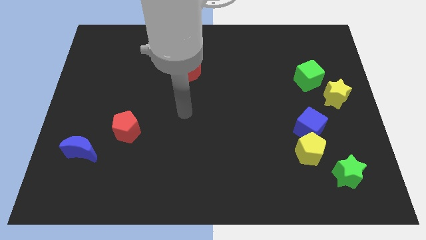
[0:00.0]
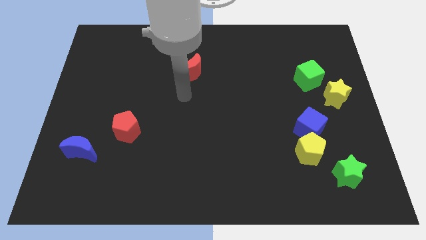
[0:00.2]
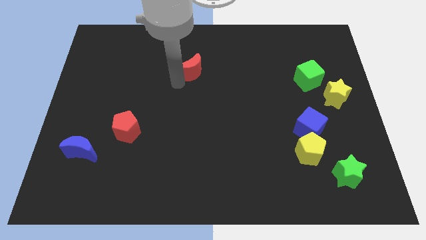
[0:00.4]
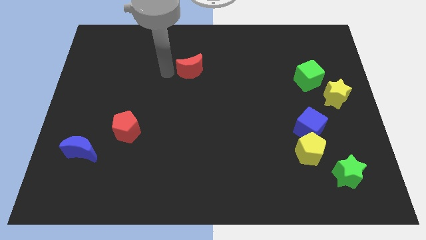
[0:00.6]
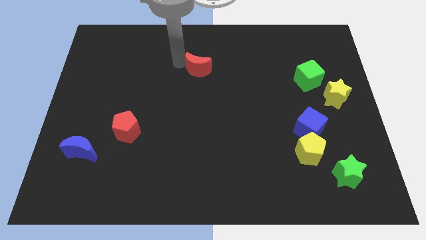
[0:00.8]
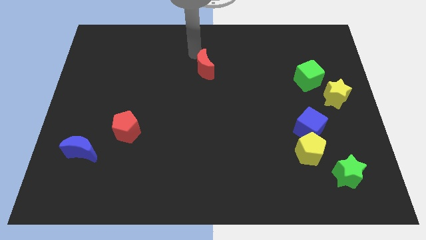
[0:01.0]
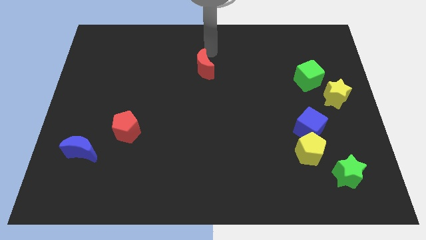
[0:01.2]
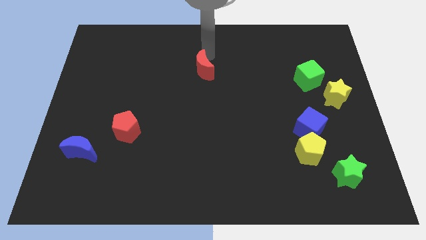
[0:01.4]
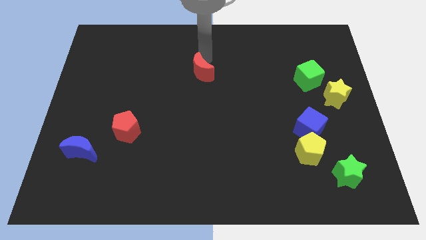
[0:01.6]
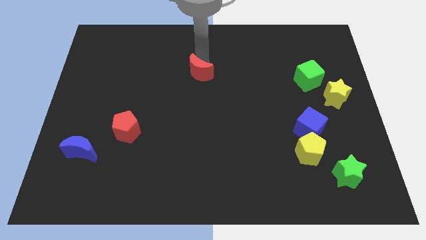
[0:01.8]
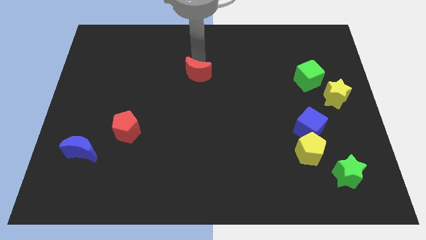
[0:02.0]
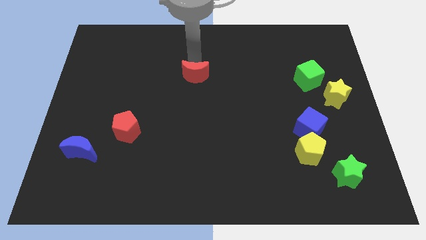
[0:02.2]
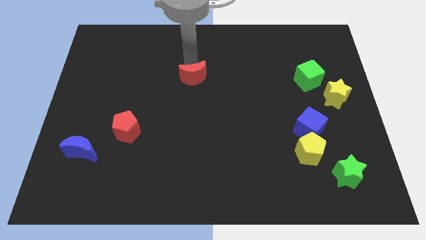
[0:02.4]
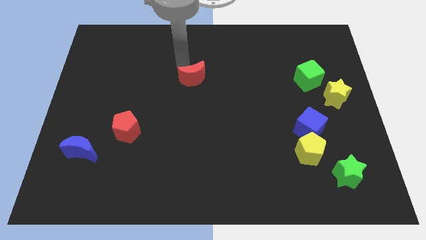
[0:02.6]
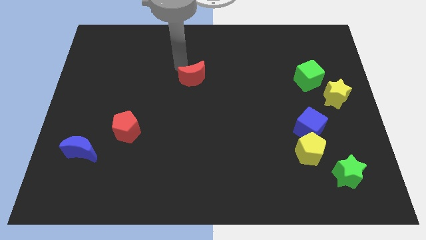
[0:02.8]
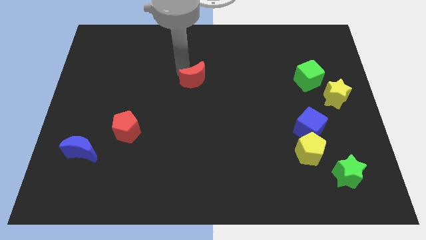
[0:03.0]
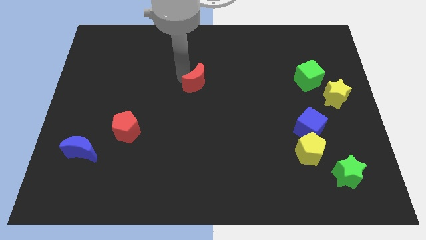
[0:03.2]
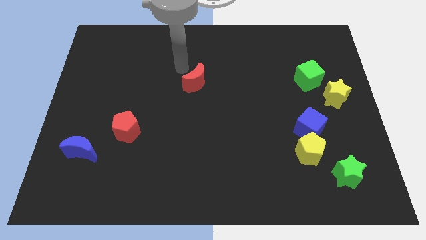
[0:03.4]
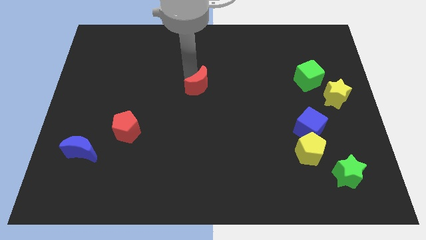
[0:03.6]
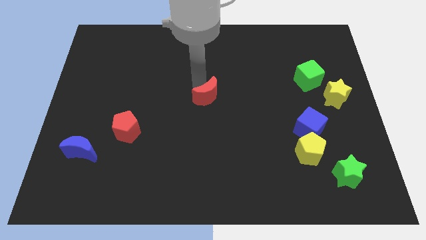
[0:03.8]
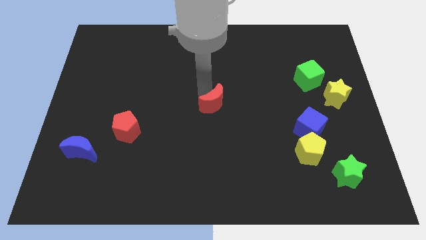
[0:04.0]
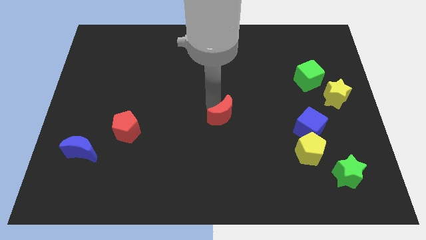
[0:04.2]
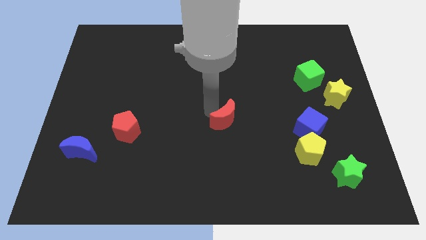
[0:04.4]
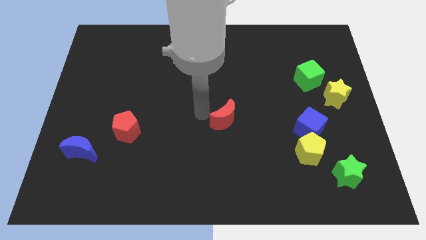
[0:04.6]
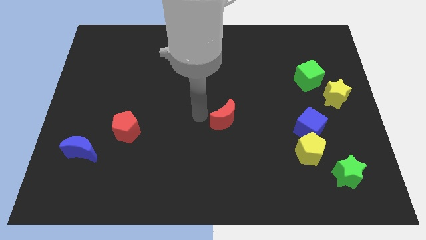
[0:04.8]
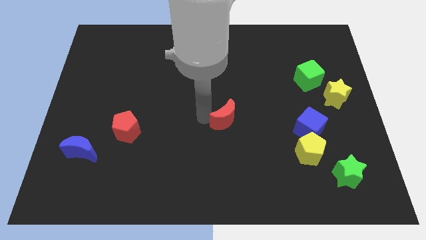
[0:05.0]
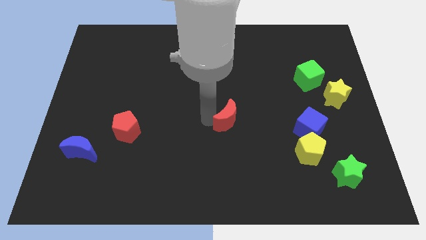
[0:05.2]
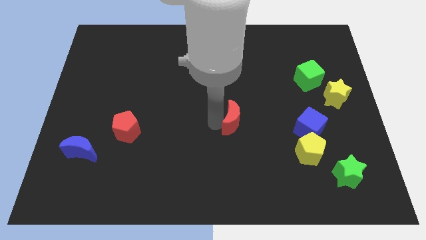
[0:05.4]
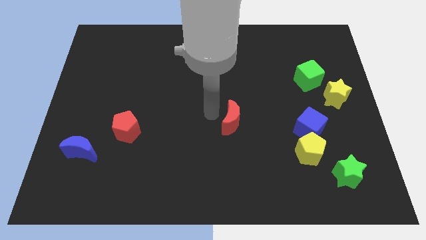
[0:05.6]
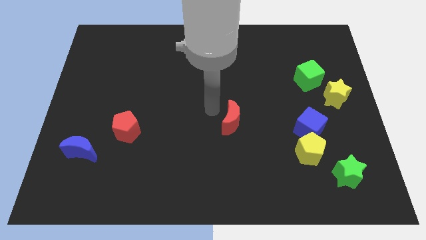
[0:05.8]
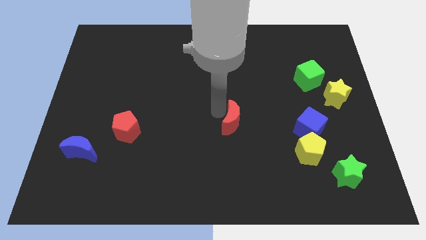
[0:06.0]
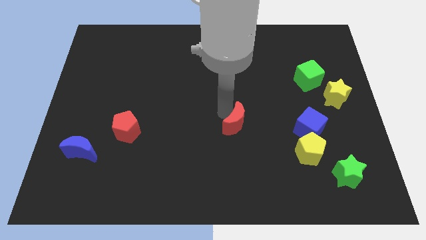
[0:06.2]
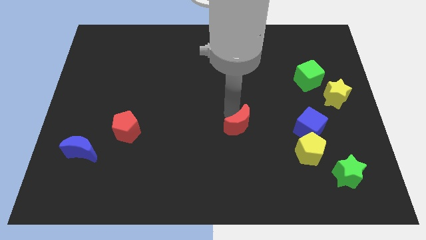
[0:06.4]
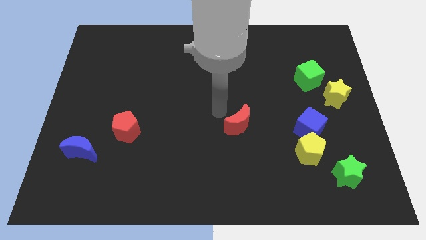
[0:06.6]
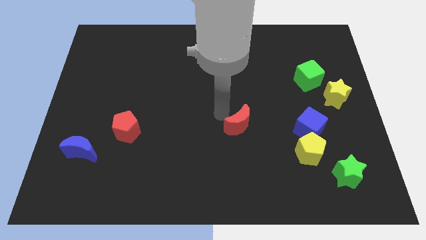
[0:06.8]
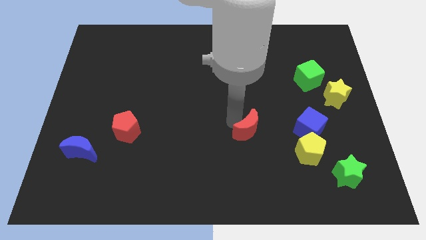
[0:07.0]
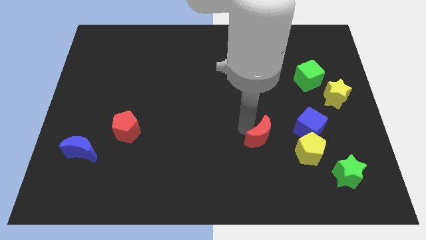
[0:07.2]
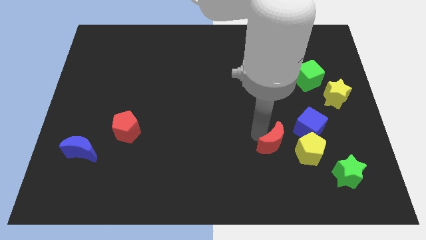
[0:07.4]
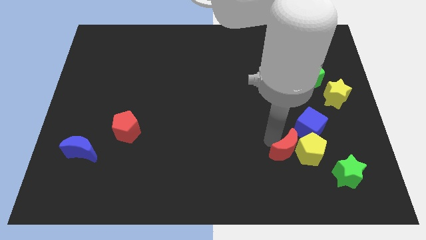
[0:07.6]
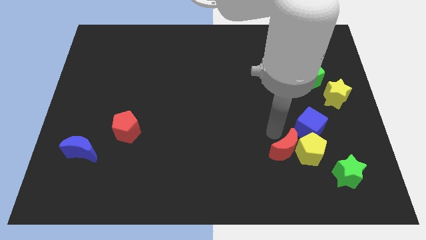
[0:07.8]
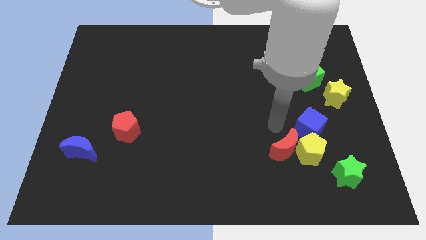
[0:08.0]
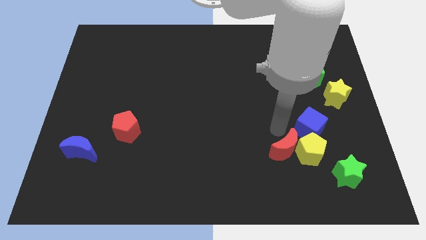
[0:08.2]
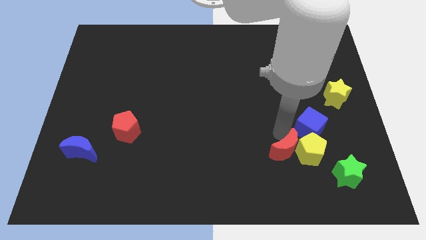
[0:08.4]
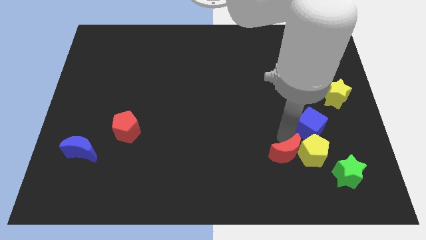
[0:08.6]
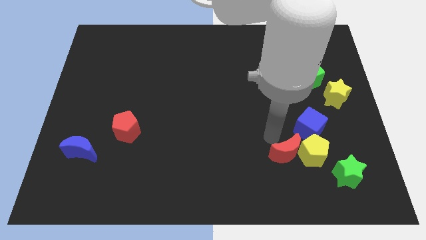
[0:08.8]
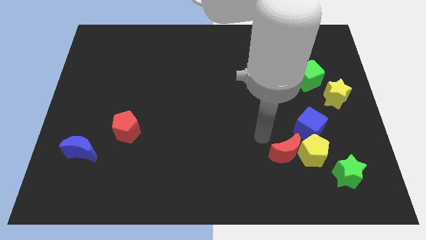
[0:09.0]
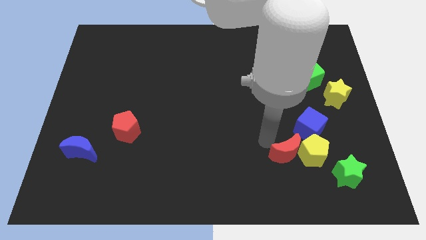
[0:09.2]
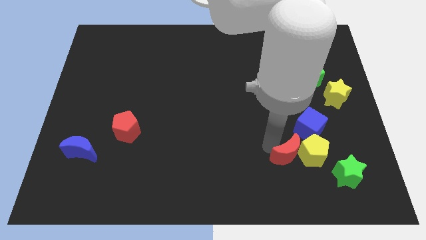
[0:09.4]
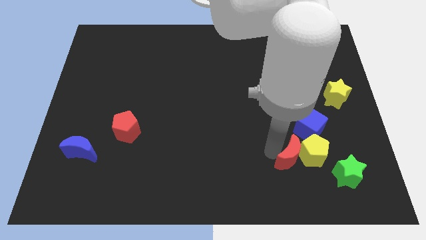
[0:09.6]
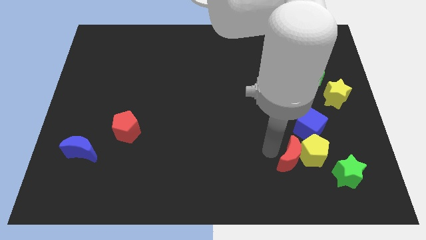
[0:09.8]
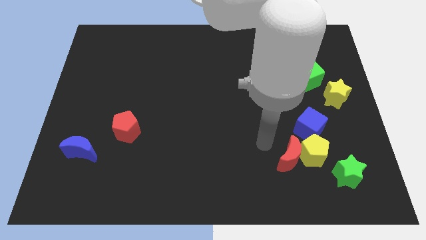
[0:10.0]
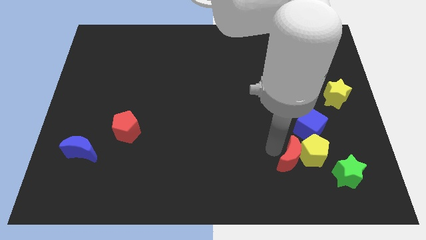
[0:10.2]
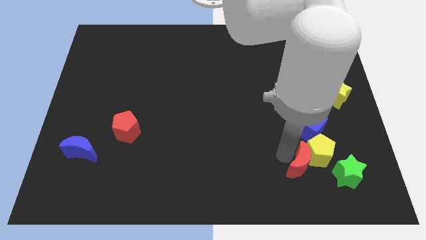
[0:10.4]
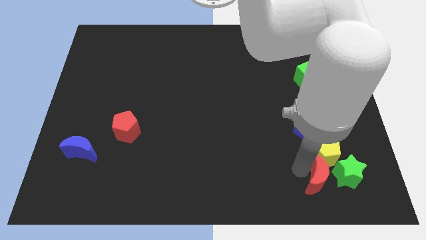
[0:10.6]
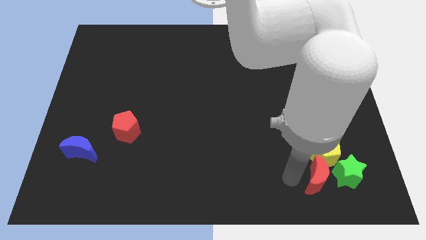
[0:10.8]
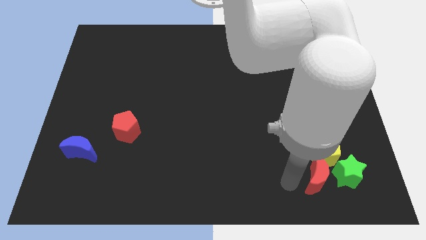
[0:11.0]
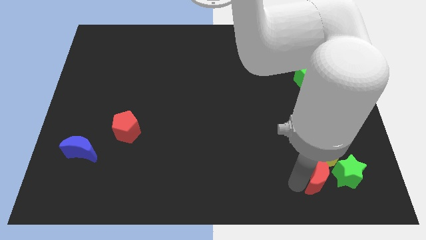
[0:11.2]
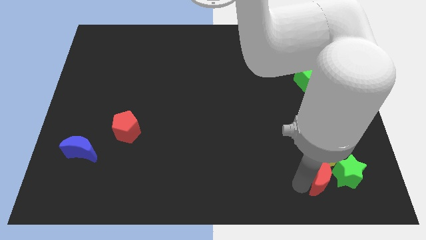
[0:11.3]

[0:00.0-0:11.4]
push the red moon close to the green star

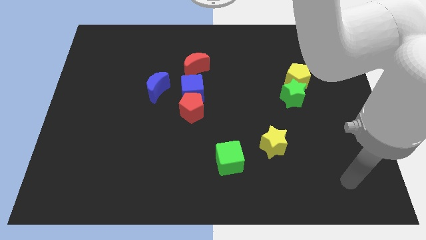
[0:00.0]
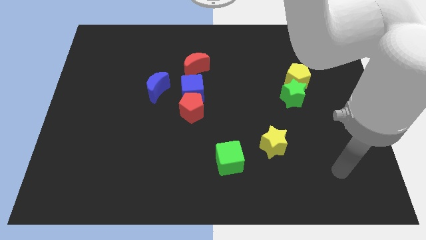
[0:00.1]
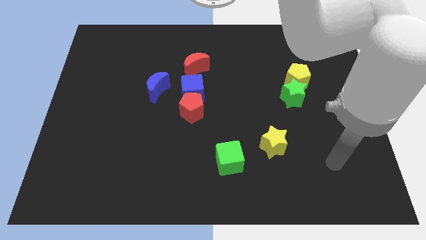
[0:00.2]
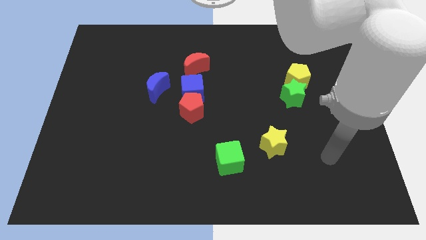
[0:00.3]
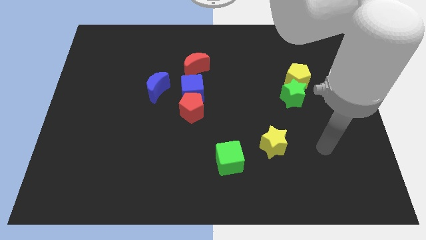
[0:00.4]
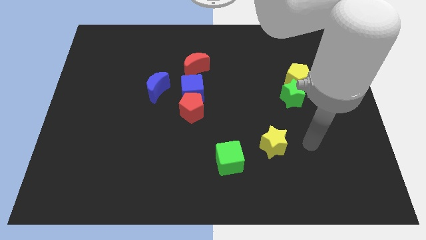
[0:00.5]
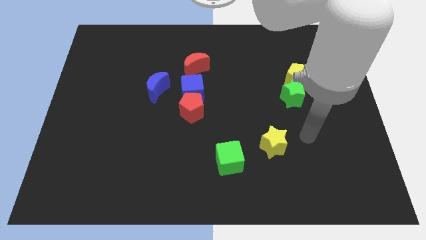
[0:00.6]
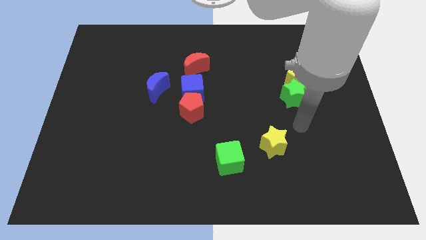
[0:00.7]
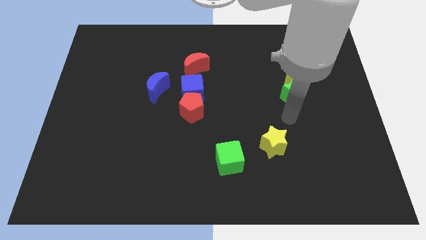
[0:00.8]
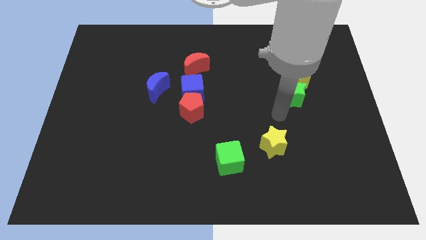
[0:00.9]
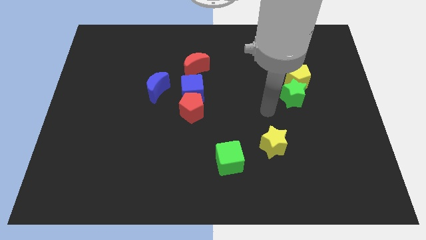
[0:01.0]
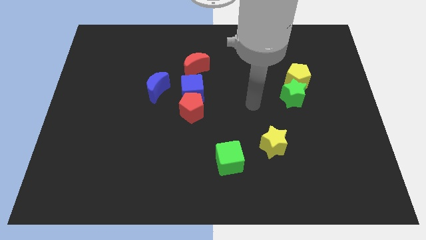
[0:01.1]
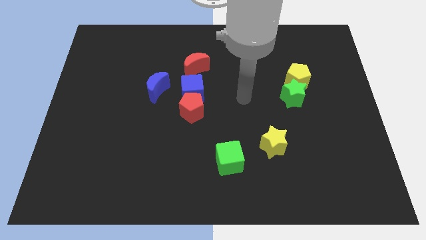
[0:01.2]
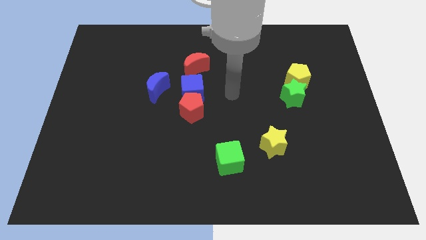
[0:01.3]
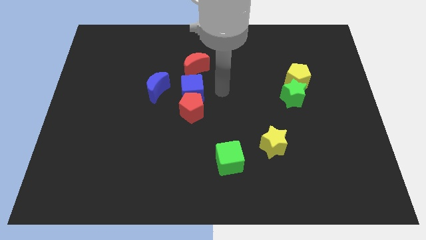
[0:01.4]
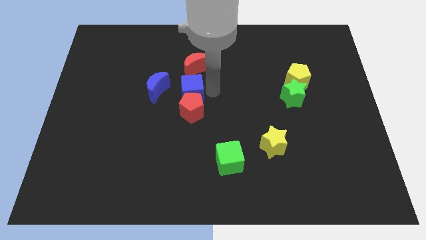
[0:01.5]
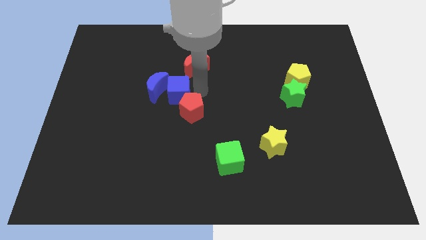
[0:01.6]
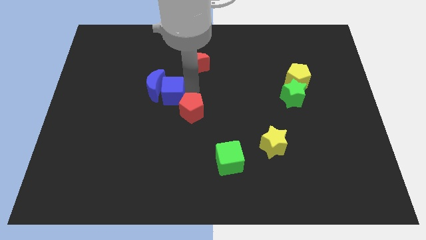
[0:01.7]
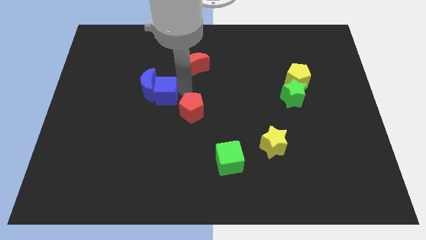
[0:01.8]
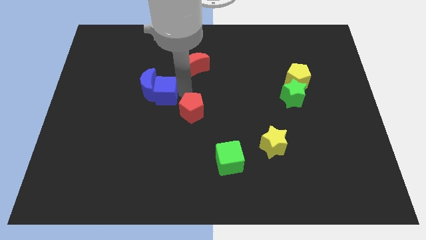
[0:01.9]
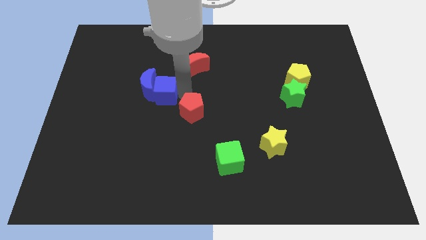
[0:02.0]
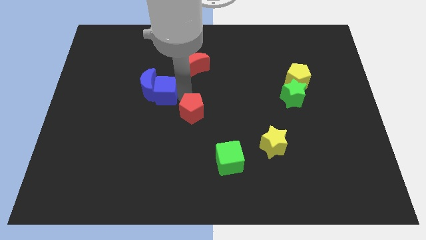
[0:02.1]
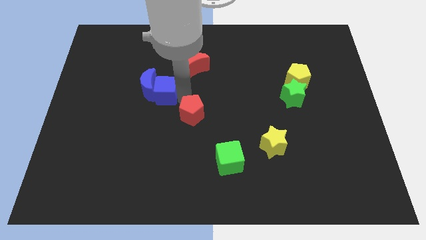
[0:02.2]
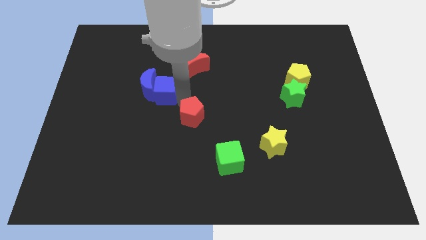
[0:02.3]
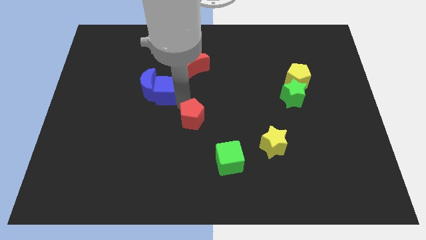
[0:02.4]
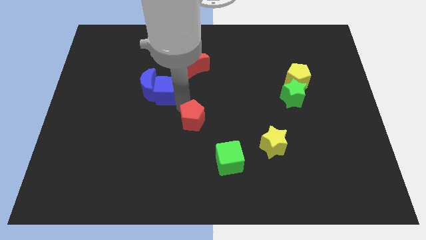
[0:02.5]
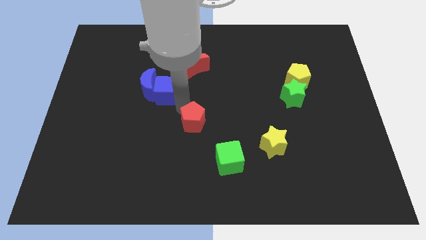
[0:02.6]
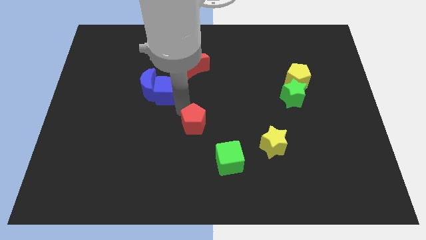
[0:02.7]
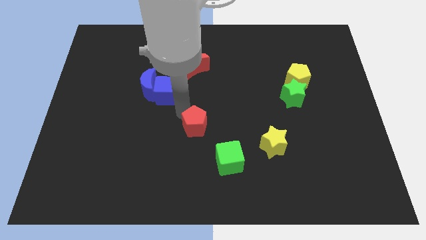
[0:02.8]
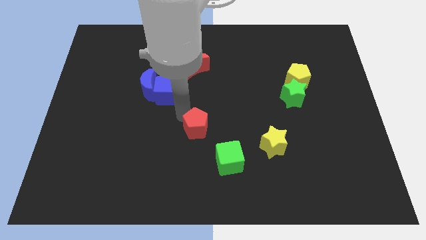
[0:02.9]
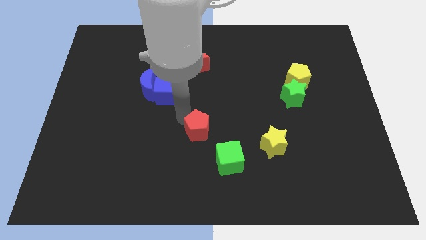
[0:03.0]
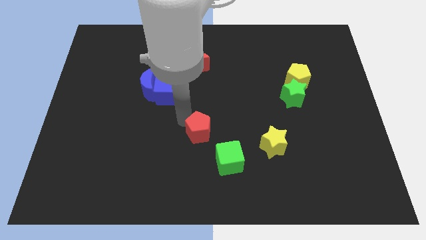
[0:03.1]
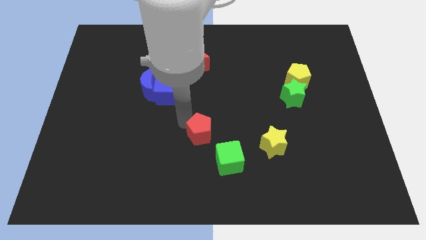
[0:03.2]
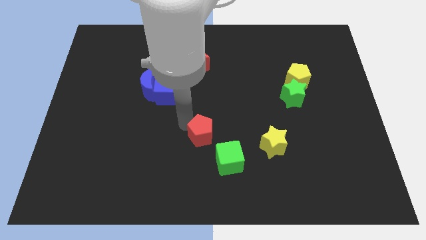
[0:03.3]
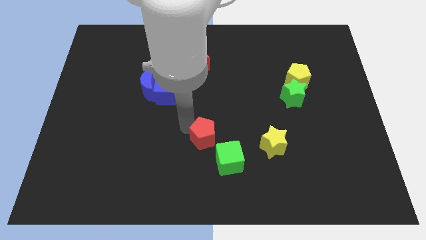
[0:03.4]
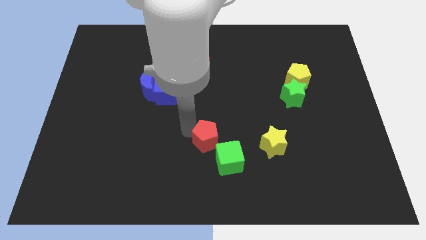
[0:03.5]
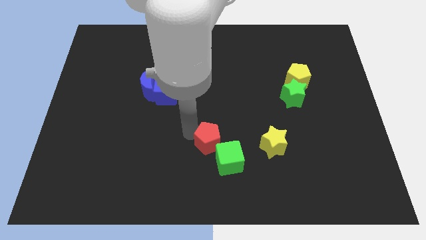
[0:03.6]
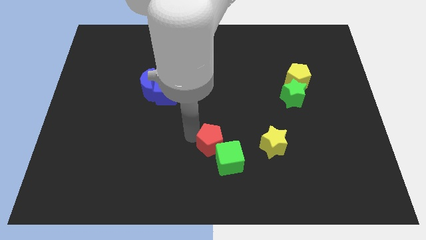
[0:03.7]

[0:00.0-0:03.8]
put the red pentagon close to the green cube
